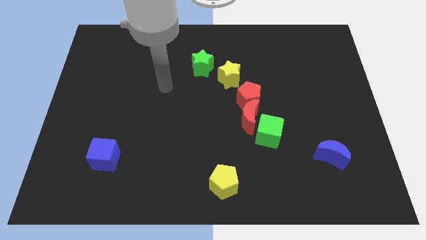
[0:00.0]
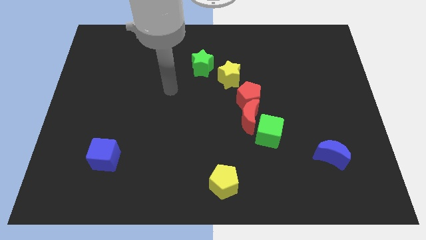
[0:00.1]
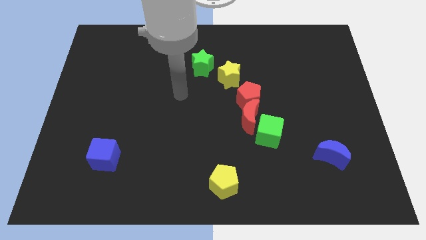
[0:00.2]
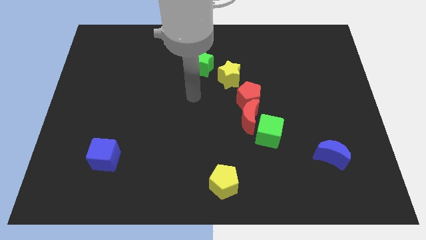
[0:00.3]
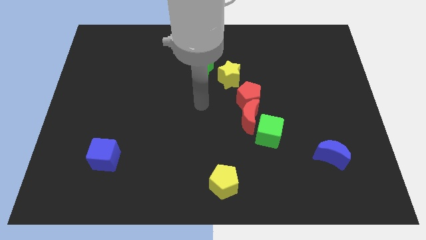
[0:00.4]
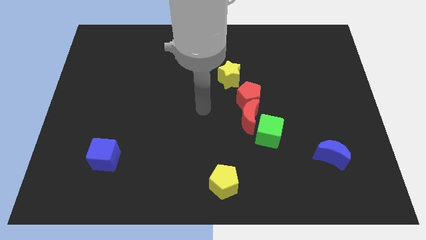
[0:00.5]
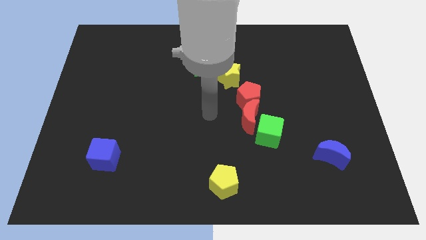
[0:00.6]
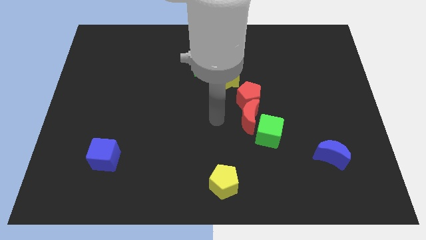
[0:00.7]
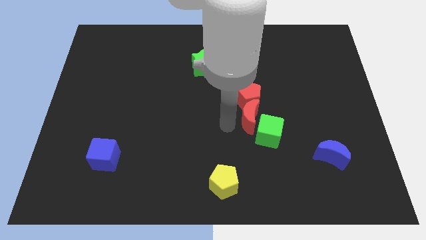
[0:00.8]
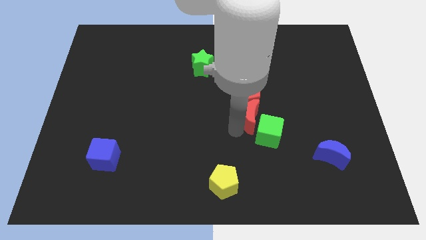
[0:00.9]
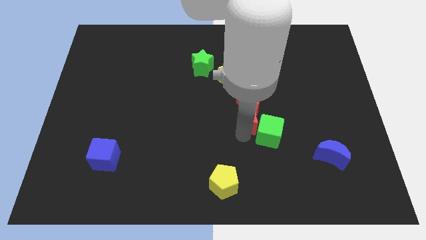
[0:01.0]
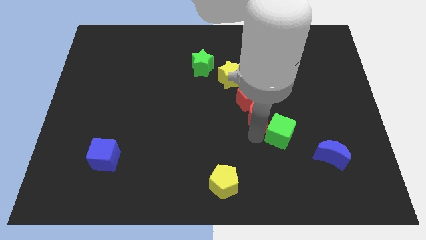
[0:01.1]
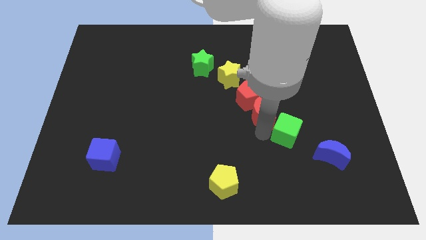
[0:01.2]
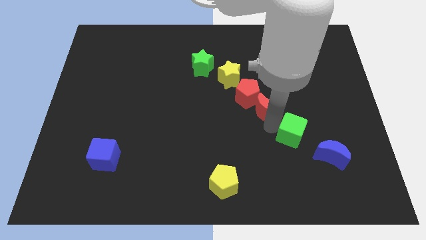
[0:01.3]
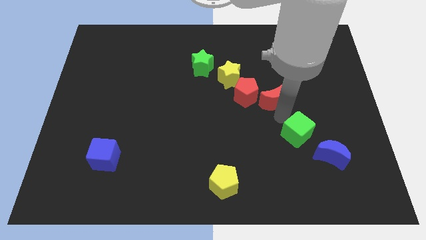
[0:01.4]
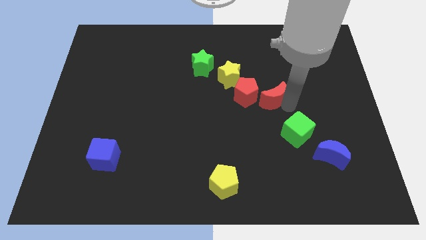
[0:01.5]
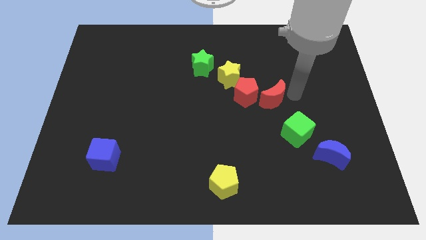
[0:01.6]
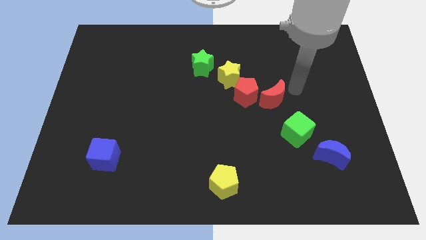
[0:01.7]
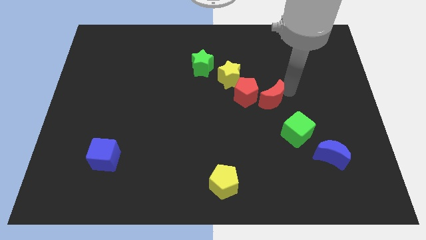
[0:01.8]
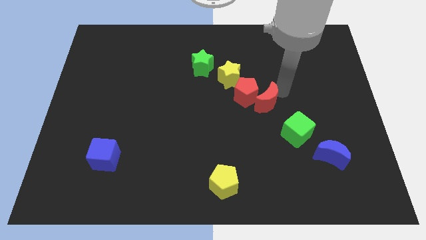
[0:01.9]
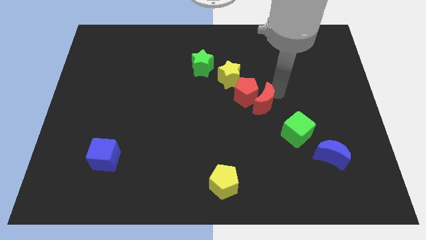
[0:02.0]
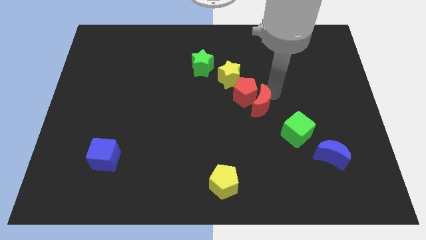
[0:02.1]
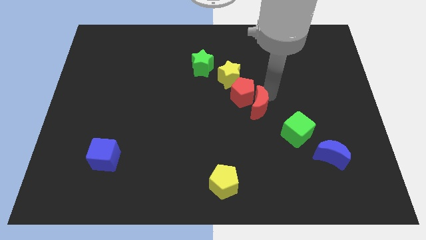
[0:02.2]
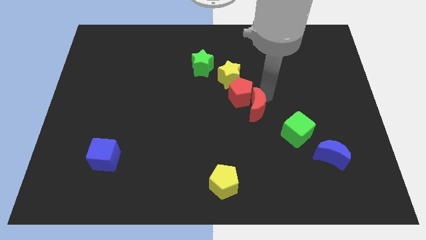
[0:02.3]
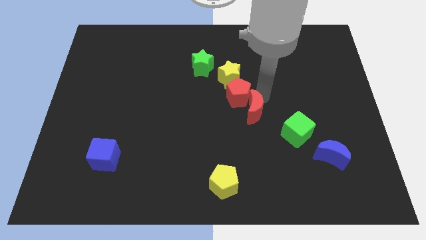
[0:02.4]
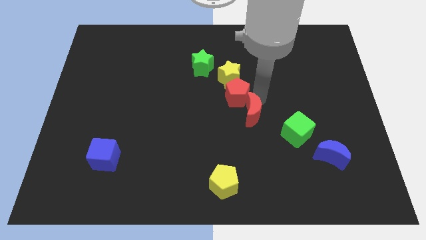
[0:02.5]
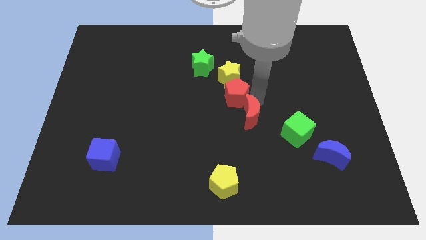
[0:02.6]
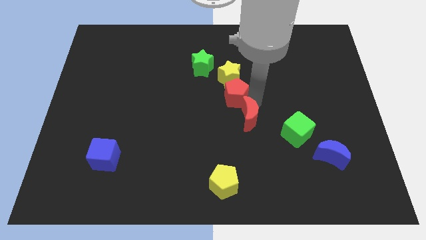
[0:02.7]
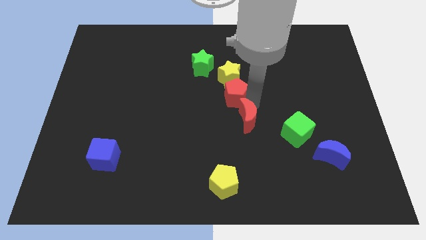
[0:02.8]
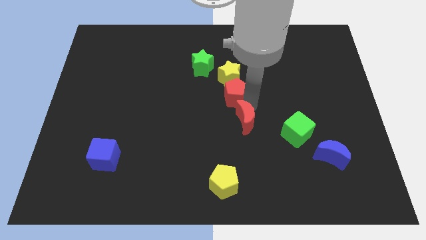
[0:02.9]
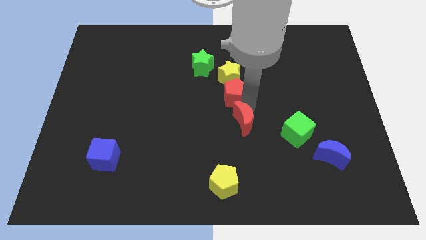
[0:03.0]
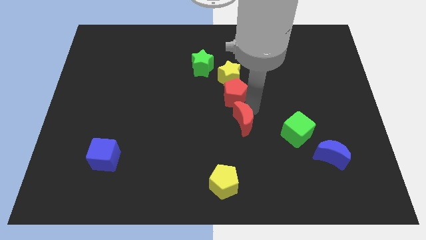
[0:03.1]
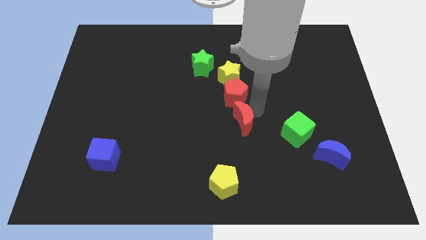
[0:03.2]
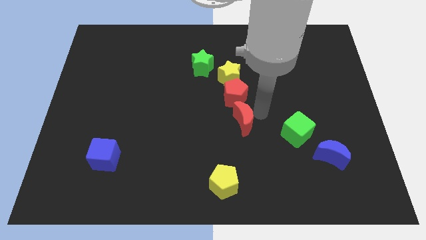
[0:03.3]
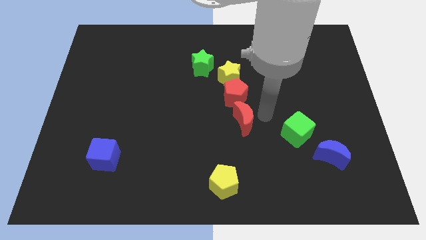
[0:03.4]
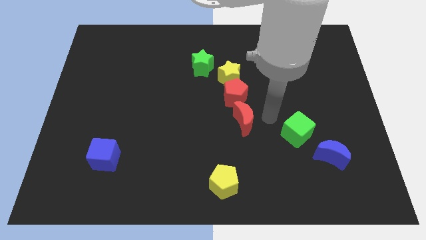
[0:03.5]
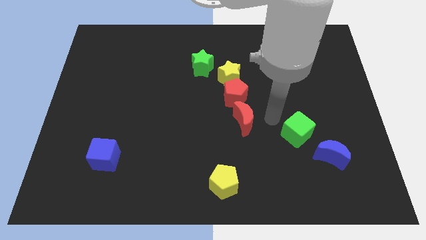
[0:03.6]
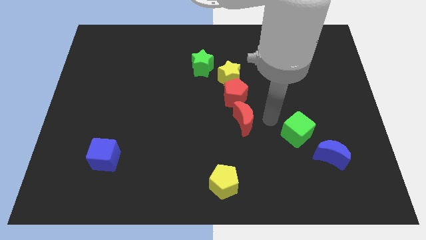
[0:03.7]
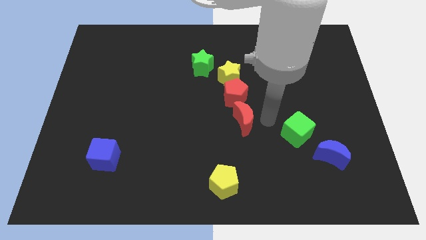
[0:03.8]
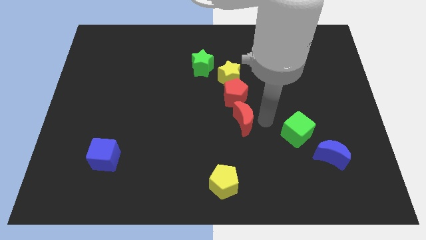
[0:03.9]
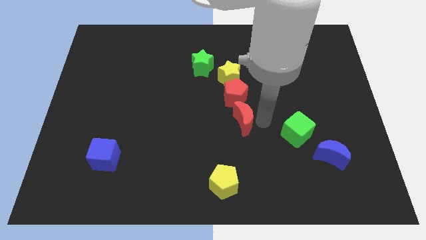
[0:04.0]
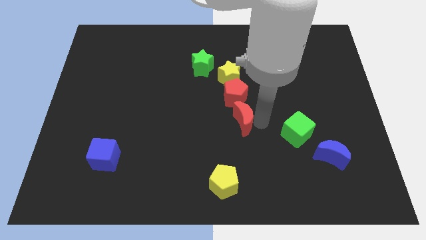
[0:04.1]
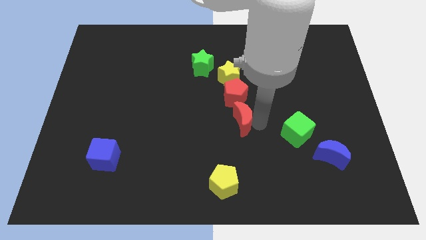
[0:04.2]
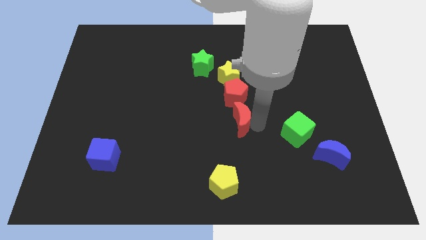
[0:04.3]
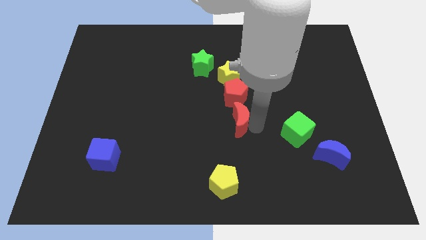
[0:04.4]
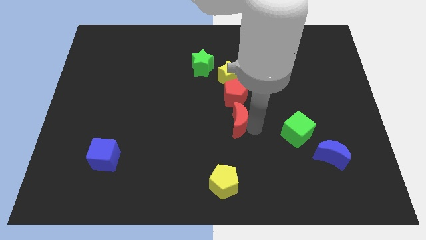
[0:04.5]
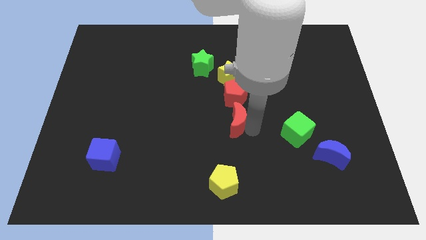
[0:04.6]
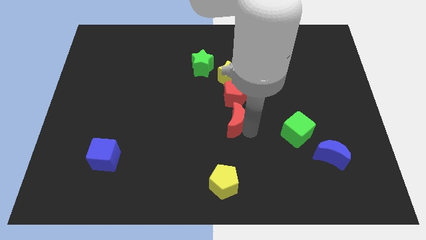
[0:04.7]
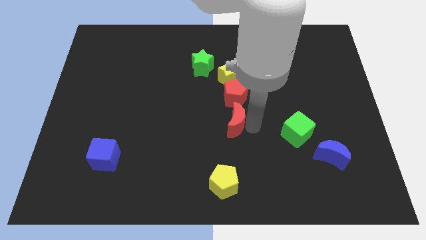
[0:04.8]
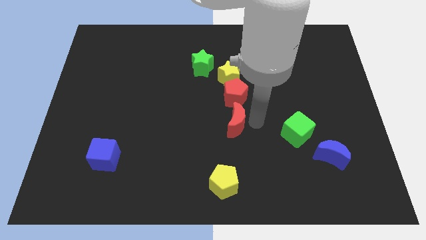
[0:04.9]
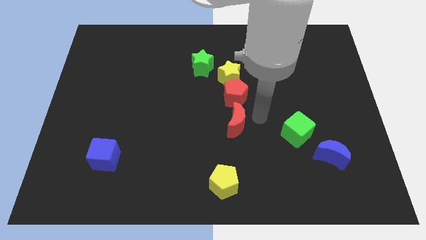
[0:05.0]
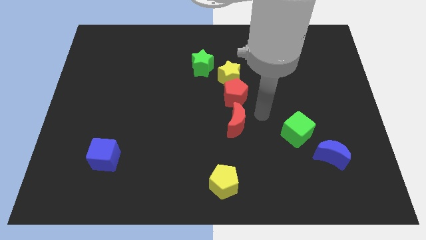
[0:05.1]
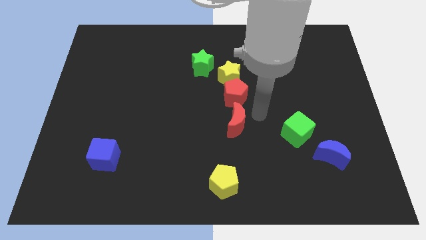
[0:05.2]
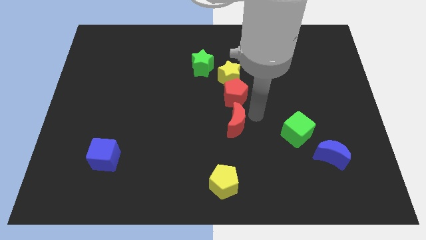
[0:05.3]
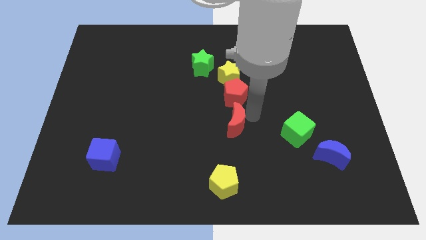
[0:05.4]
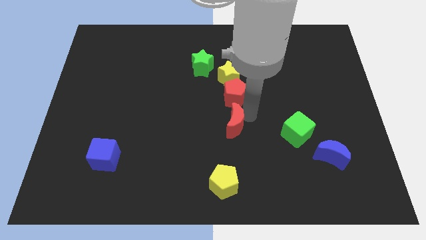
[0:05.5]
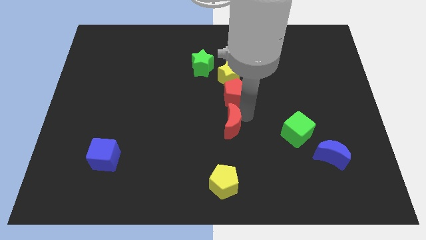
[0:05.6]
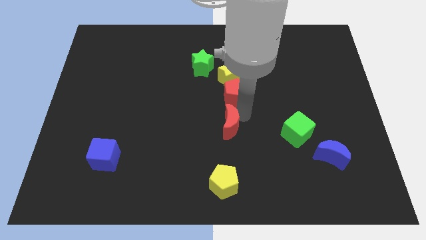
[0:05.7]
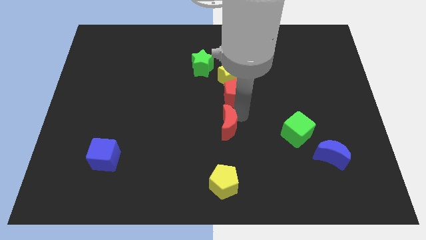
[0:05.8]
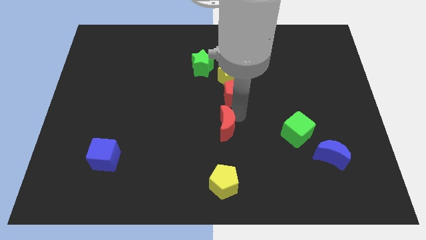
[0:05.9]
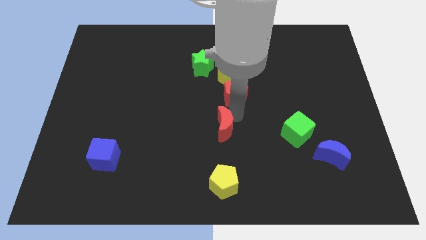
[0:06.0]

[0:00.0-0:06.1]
pull the red moon apart from the red pentagon and green cube

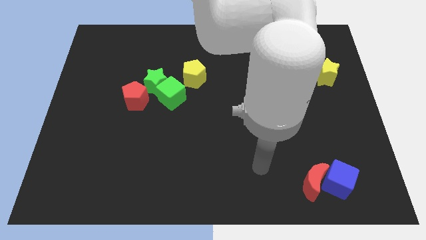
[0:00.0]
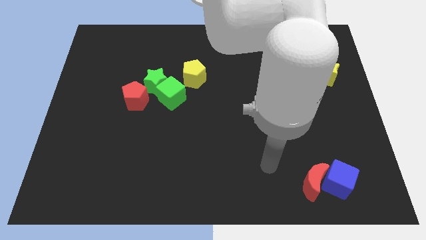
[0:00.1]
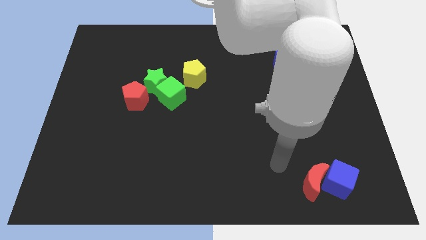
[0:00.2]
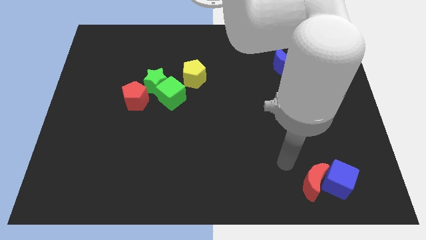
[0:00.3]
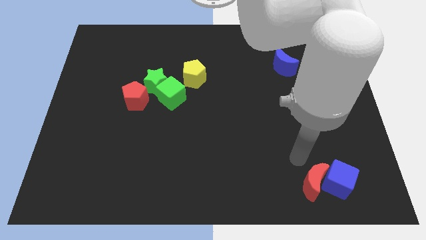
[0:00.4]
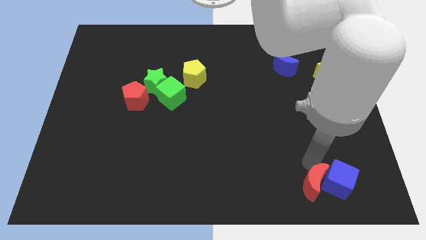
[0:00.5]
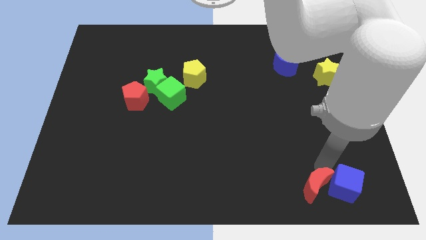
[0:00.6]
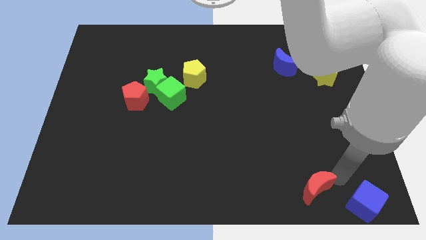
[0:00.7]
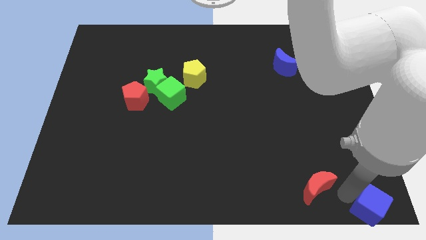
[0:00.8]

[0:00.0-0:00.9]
move the red moon away from the blue cube

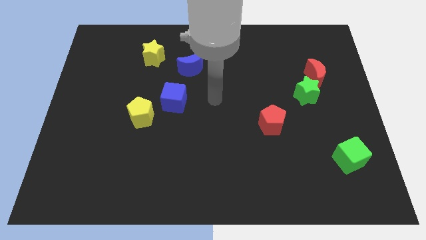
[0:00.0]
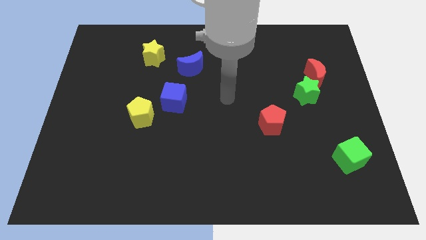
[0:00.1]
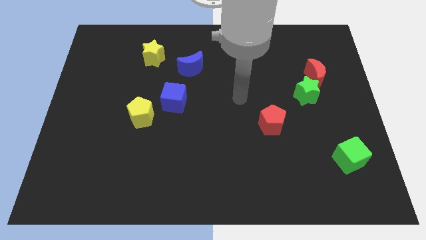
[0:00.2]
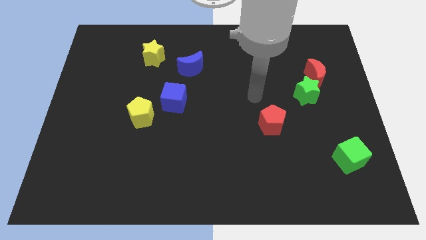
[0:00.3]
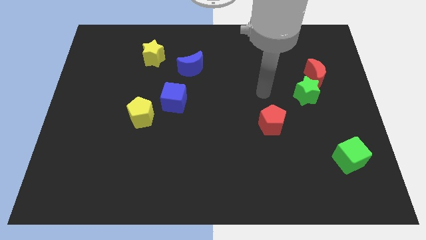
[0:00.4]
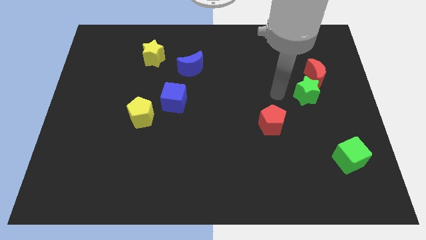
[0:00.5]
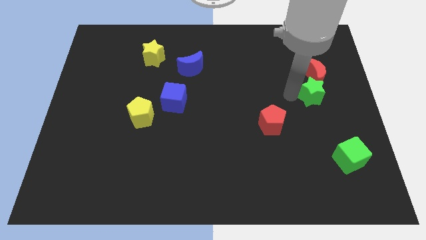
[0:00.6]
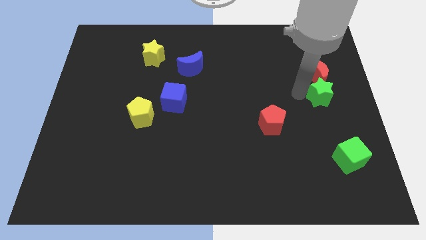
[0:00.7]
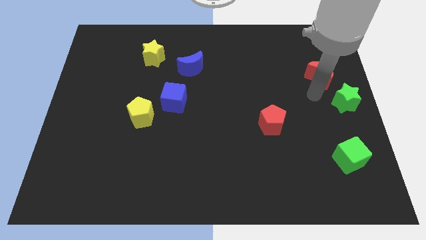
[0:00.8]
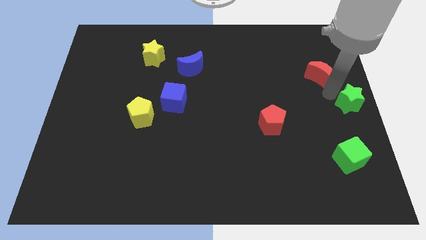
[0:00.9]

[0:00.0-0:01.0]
separate the red moon from the green star

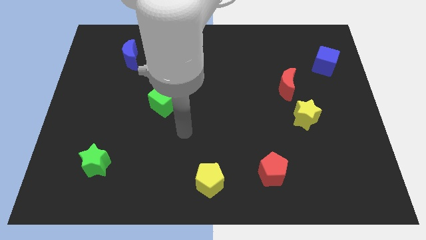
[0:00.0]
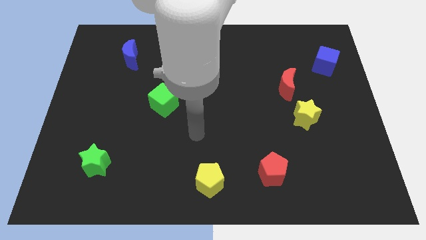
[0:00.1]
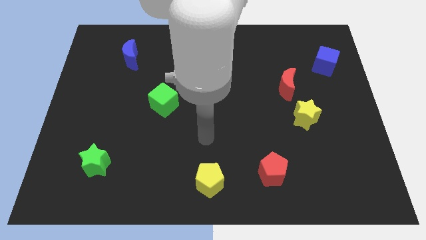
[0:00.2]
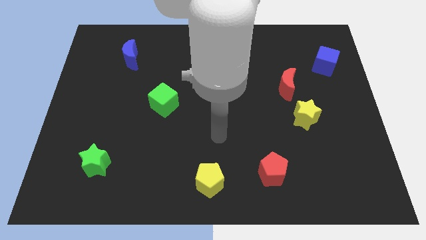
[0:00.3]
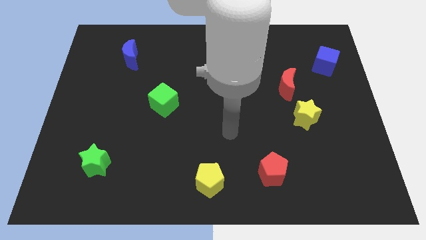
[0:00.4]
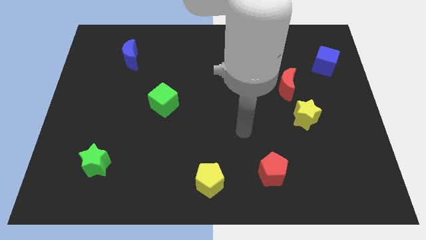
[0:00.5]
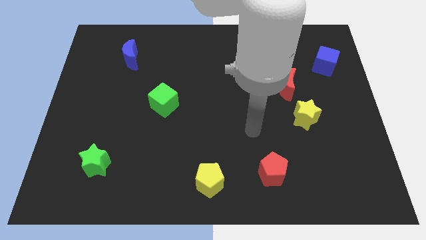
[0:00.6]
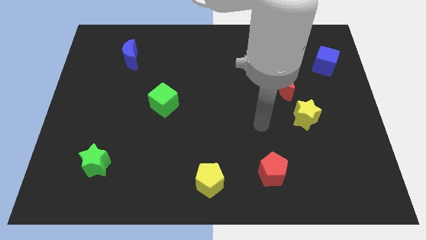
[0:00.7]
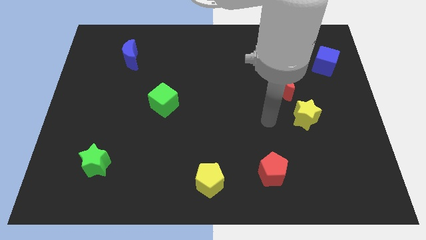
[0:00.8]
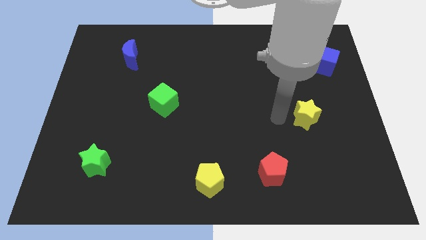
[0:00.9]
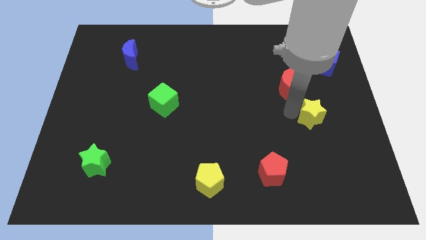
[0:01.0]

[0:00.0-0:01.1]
separate the red moon from the yellow star
